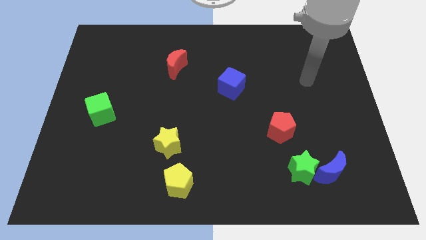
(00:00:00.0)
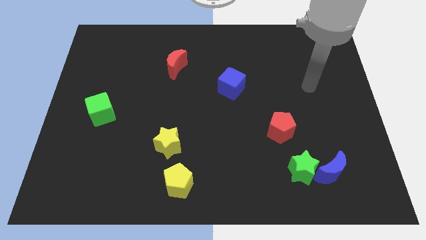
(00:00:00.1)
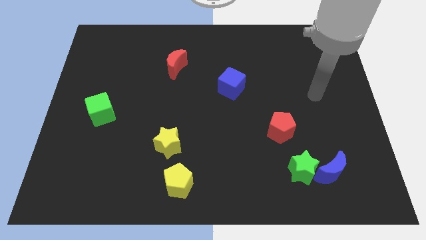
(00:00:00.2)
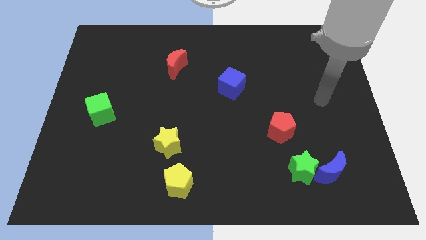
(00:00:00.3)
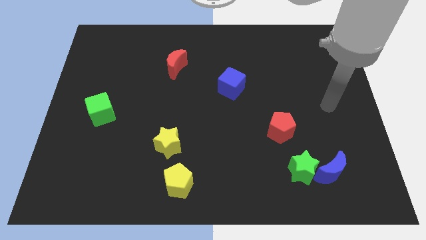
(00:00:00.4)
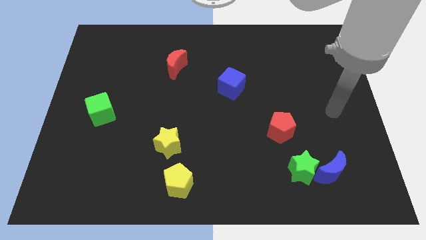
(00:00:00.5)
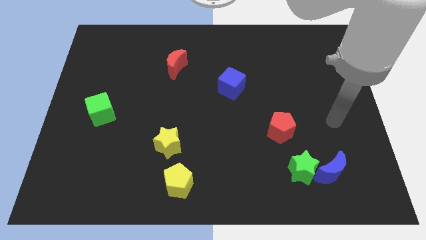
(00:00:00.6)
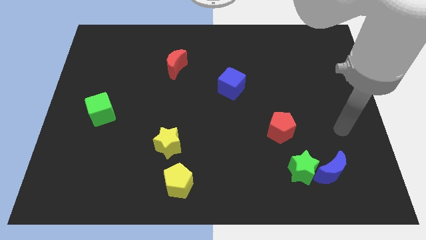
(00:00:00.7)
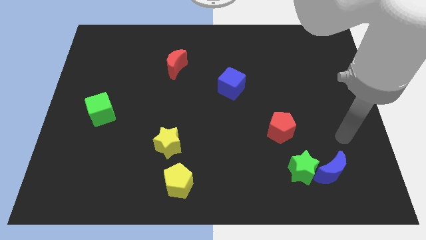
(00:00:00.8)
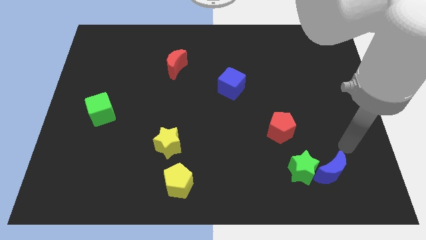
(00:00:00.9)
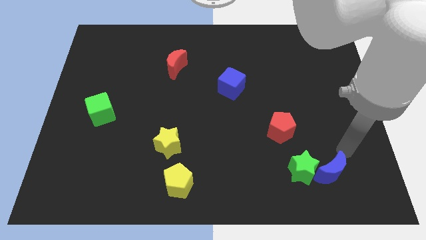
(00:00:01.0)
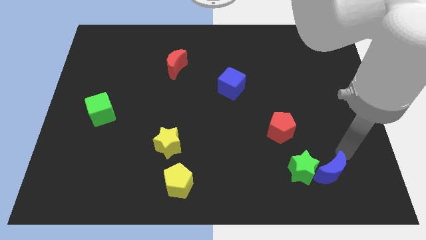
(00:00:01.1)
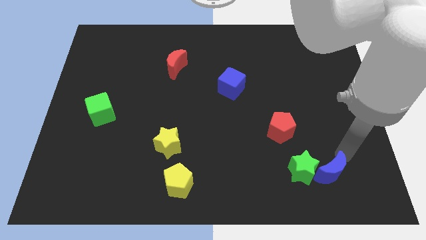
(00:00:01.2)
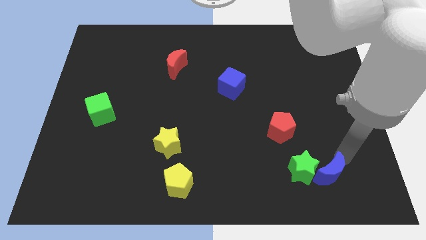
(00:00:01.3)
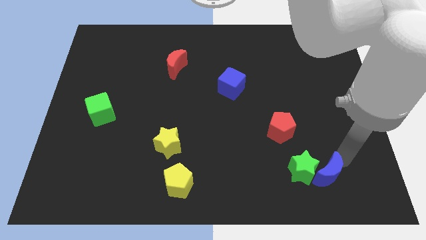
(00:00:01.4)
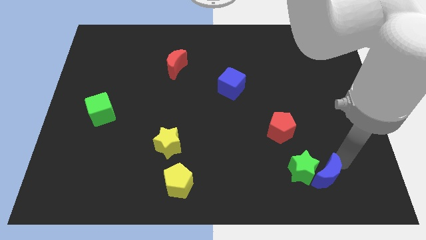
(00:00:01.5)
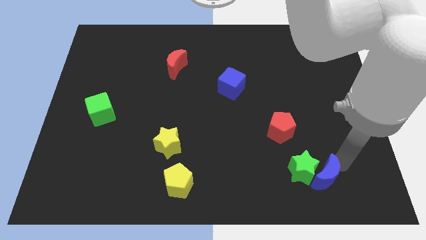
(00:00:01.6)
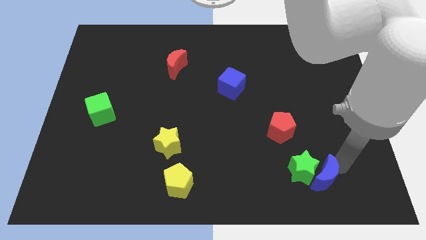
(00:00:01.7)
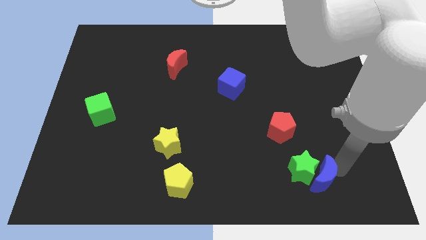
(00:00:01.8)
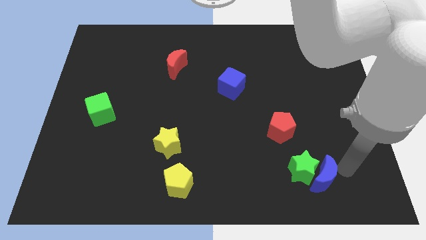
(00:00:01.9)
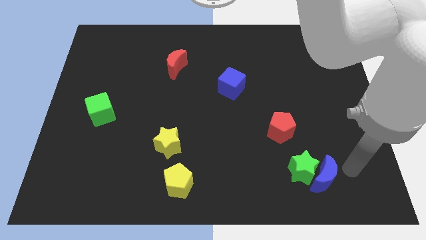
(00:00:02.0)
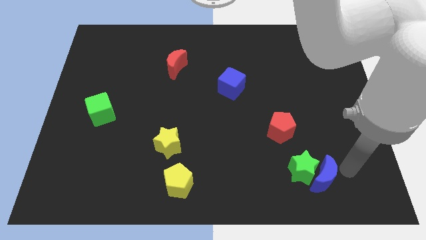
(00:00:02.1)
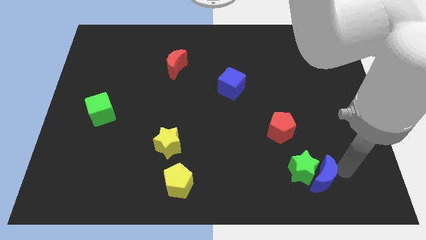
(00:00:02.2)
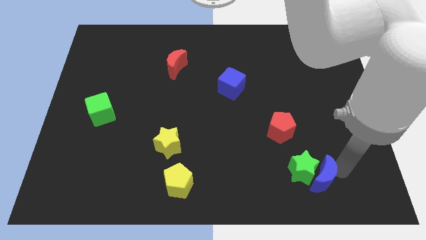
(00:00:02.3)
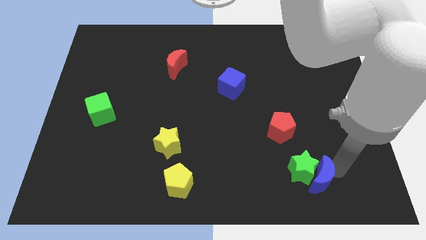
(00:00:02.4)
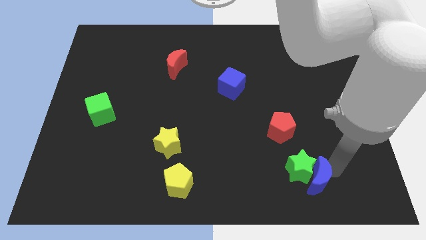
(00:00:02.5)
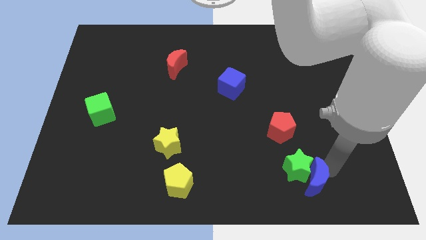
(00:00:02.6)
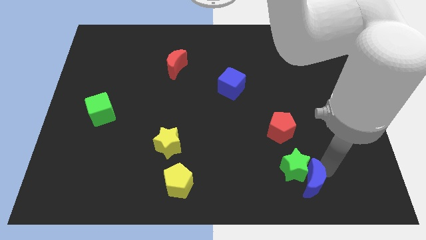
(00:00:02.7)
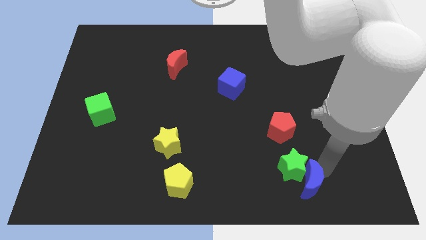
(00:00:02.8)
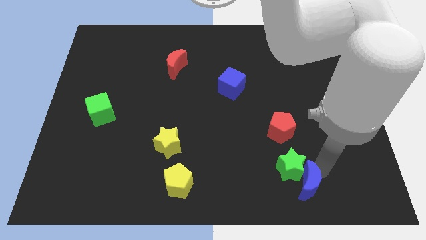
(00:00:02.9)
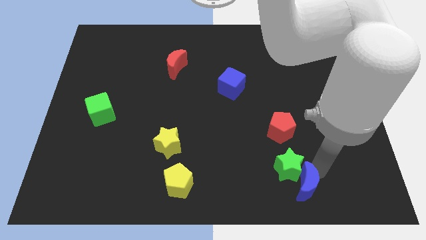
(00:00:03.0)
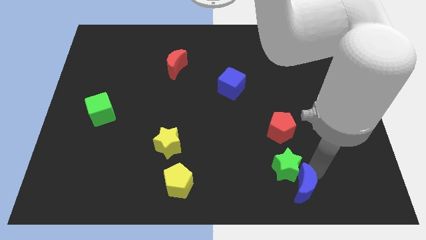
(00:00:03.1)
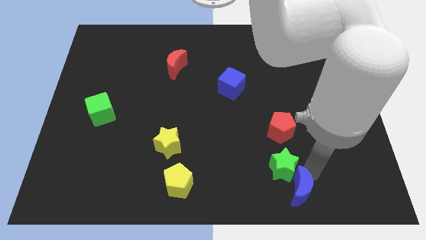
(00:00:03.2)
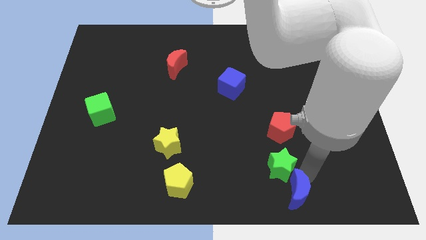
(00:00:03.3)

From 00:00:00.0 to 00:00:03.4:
slide the blue moon left somewhat

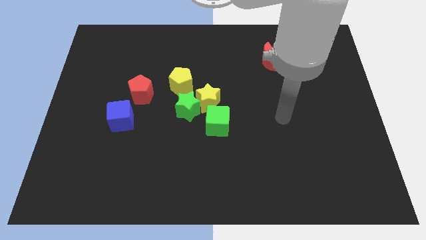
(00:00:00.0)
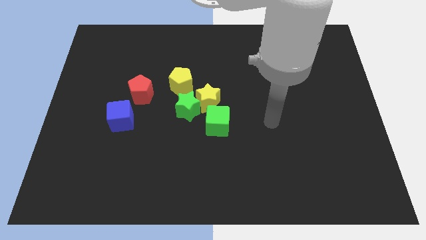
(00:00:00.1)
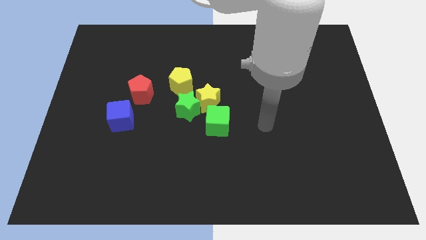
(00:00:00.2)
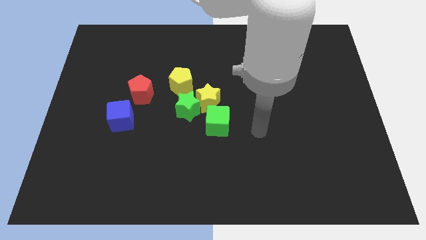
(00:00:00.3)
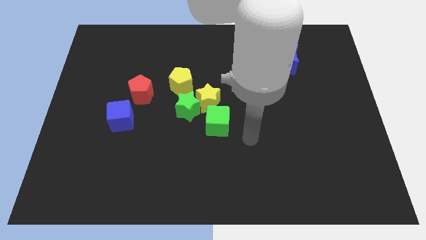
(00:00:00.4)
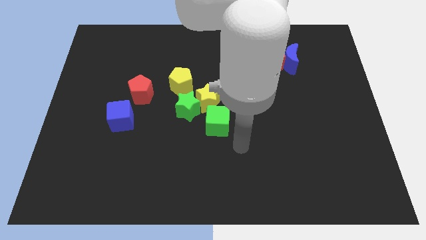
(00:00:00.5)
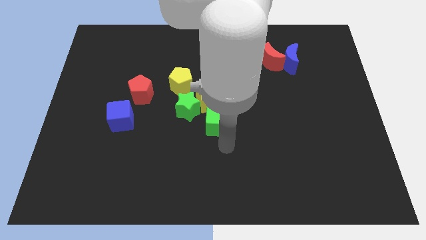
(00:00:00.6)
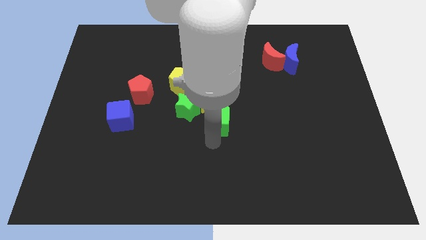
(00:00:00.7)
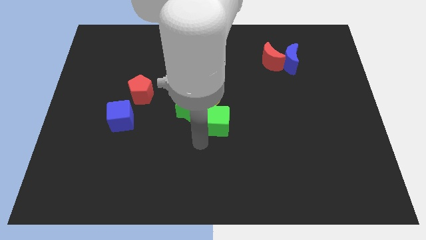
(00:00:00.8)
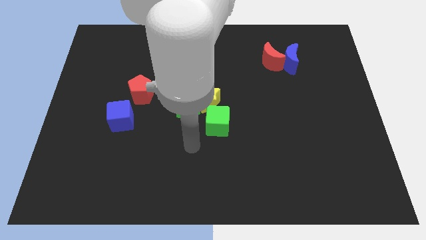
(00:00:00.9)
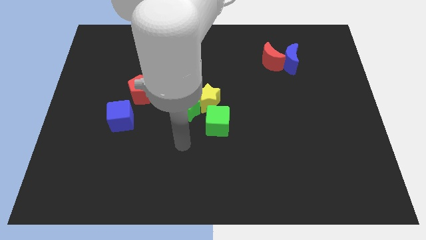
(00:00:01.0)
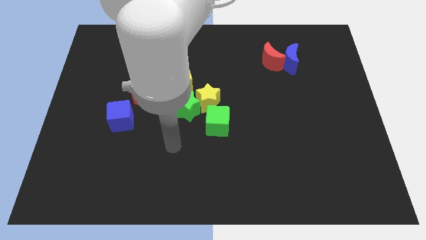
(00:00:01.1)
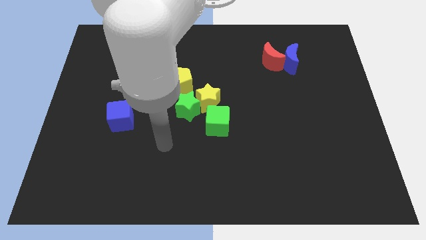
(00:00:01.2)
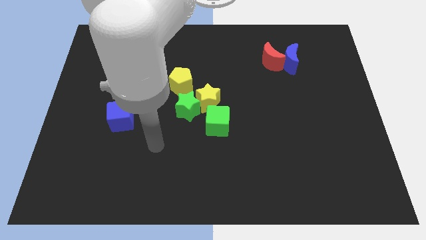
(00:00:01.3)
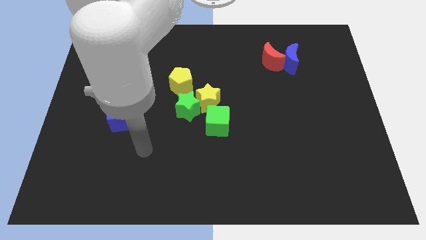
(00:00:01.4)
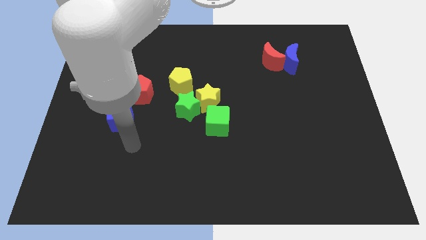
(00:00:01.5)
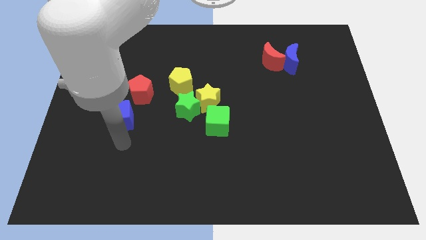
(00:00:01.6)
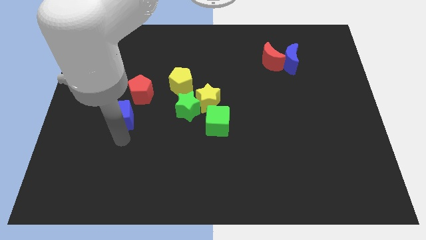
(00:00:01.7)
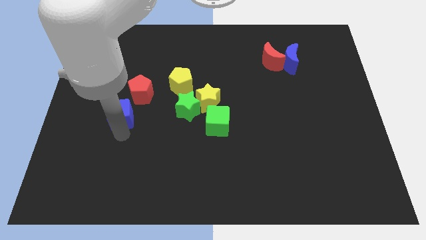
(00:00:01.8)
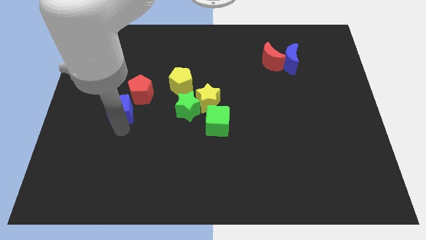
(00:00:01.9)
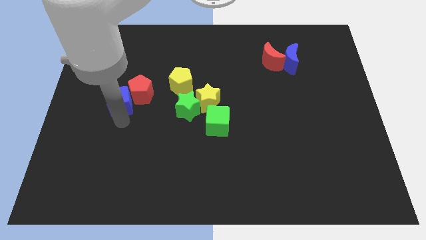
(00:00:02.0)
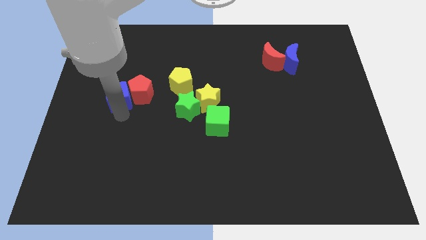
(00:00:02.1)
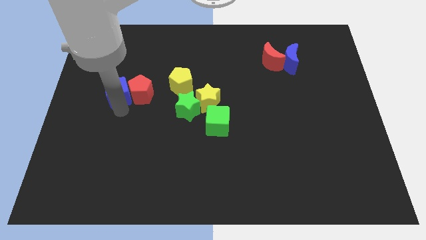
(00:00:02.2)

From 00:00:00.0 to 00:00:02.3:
slightly slide the blue cube up

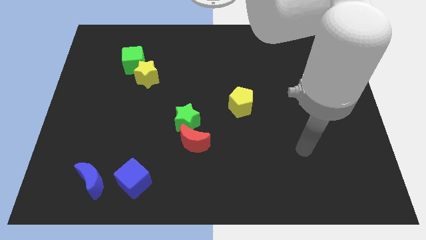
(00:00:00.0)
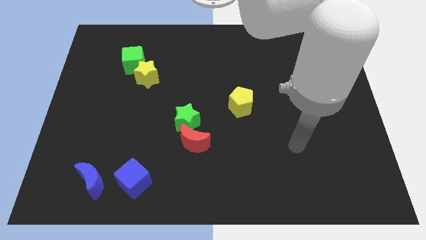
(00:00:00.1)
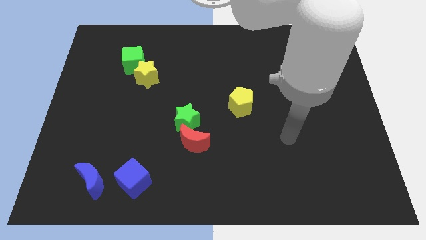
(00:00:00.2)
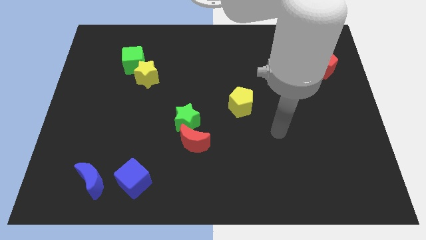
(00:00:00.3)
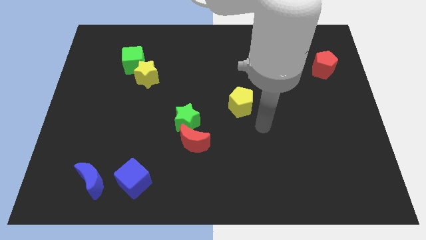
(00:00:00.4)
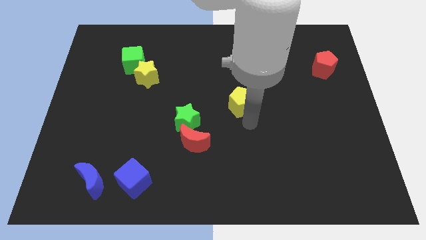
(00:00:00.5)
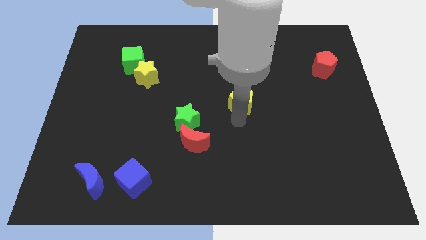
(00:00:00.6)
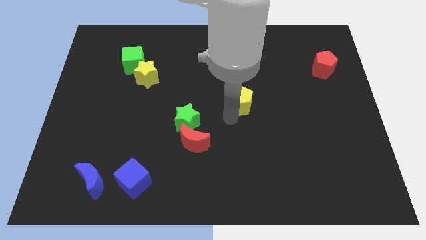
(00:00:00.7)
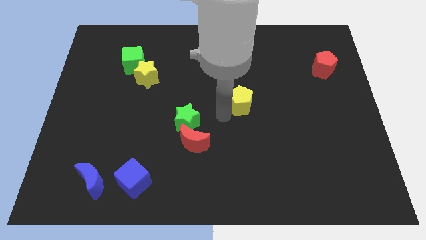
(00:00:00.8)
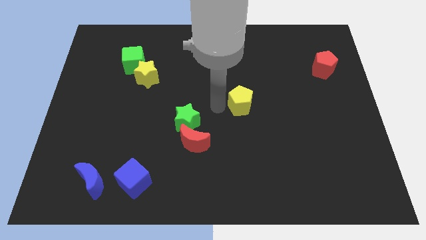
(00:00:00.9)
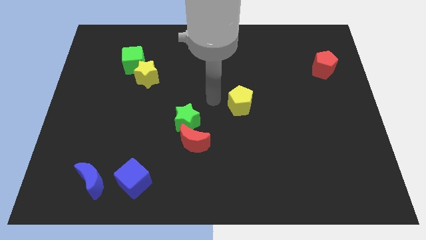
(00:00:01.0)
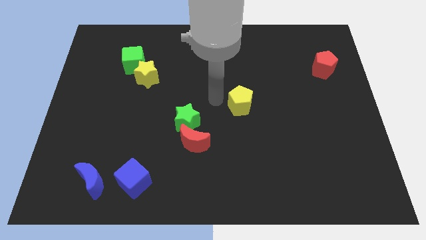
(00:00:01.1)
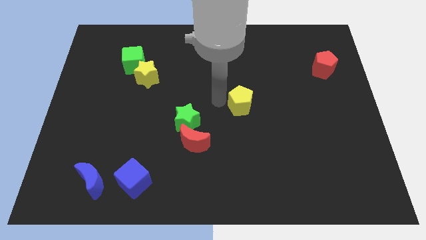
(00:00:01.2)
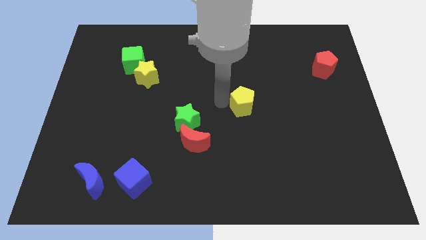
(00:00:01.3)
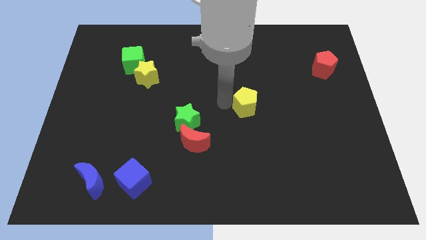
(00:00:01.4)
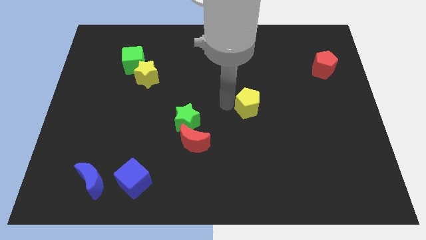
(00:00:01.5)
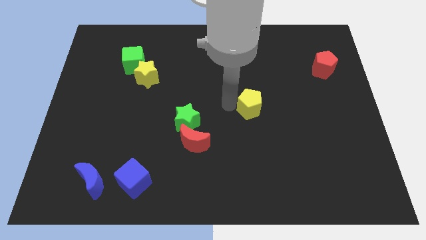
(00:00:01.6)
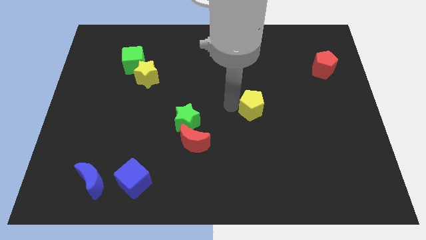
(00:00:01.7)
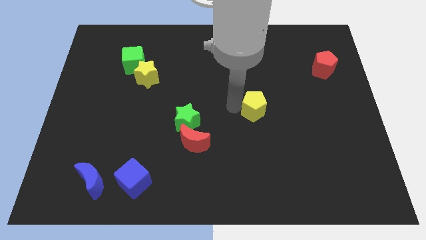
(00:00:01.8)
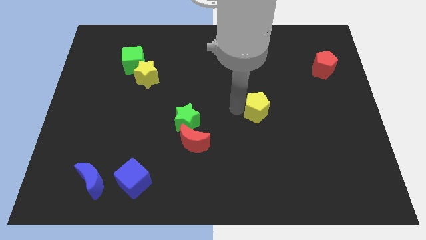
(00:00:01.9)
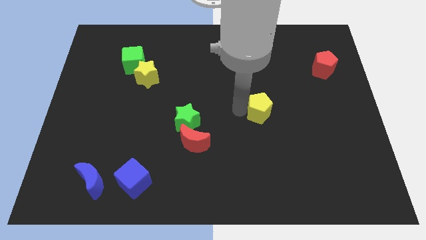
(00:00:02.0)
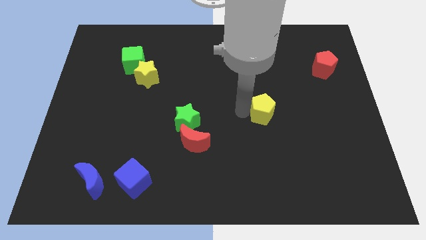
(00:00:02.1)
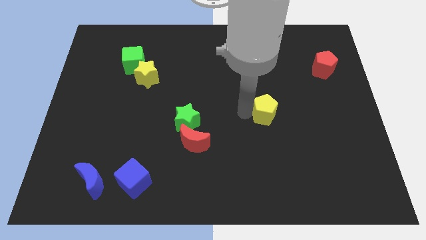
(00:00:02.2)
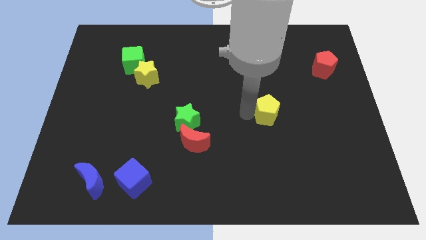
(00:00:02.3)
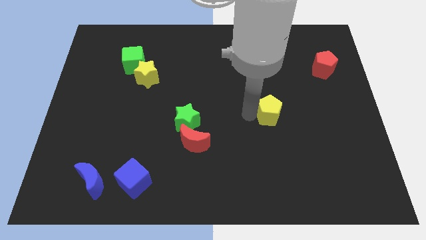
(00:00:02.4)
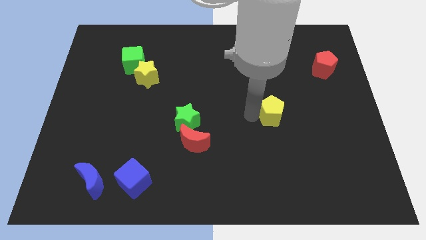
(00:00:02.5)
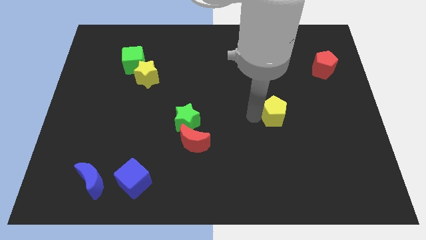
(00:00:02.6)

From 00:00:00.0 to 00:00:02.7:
slightly push the yellow pentagon to the right
